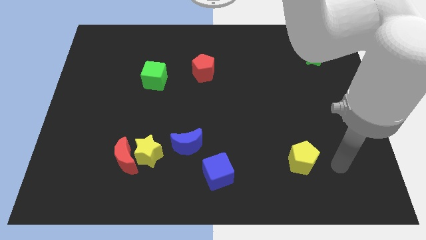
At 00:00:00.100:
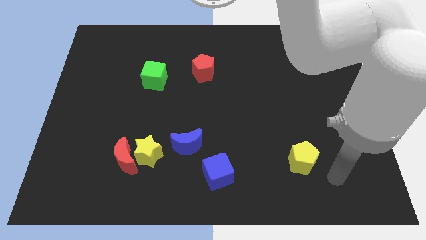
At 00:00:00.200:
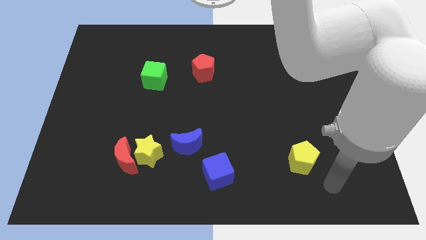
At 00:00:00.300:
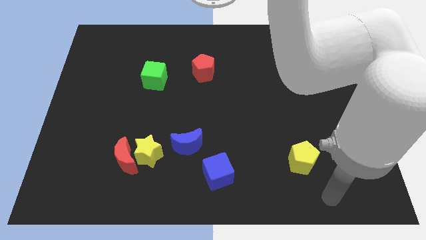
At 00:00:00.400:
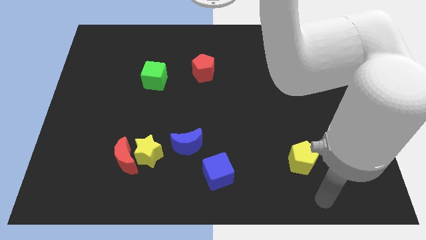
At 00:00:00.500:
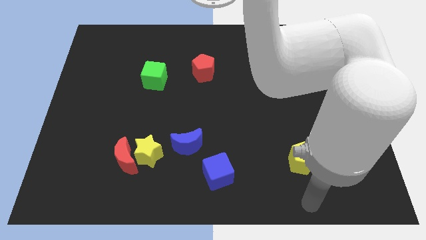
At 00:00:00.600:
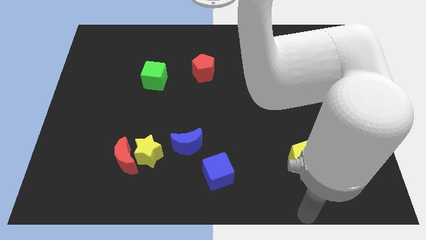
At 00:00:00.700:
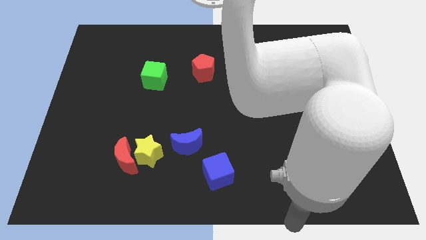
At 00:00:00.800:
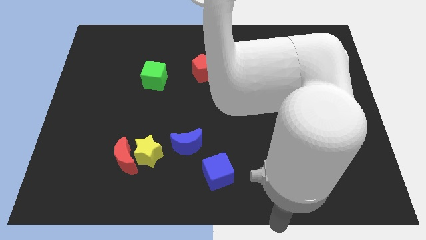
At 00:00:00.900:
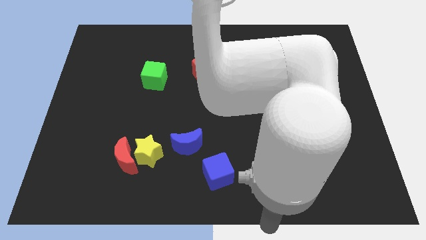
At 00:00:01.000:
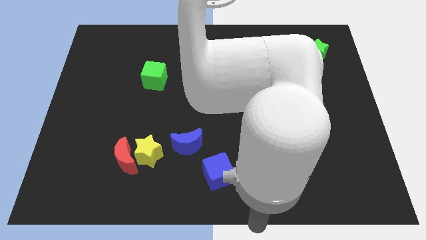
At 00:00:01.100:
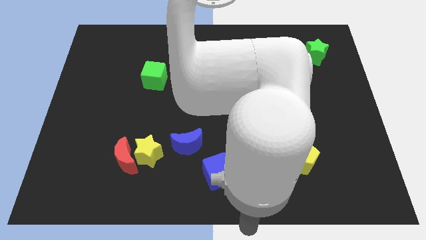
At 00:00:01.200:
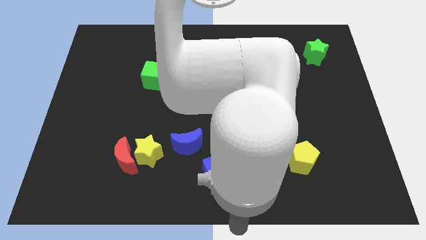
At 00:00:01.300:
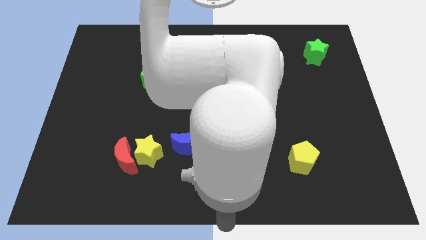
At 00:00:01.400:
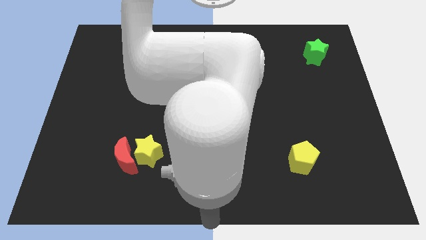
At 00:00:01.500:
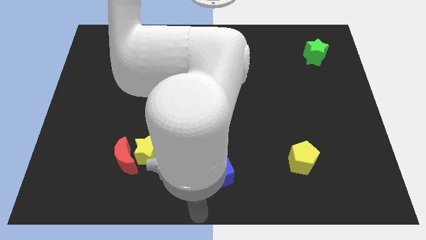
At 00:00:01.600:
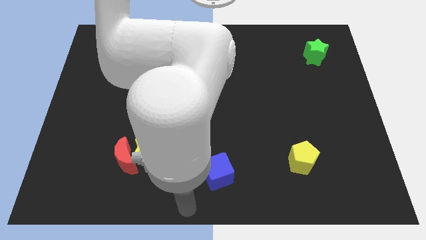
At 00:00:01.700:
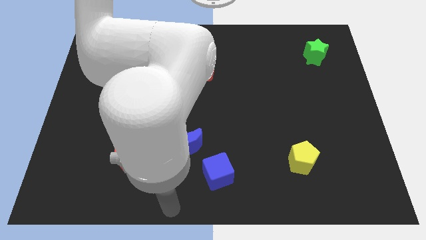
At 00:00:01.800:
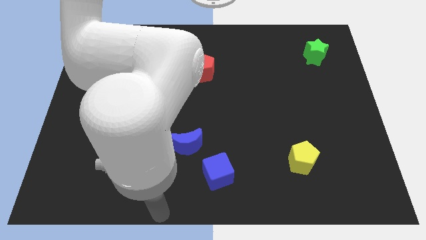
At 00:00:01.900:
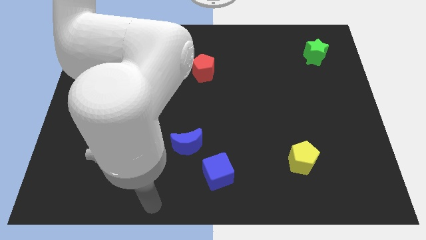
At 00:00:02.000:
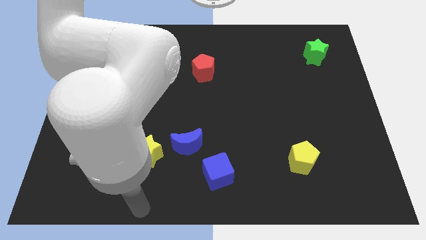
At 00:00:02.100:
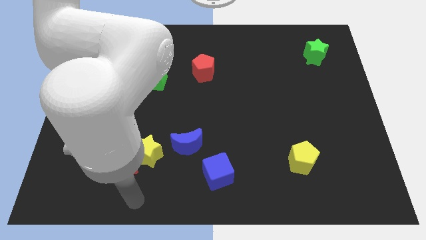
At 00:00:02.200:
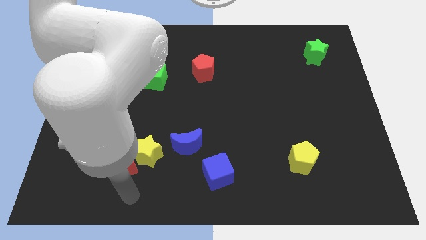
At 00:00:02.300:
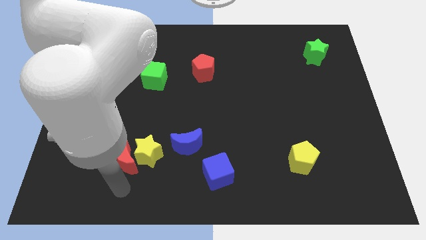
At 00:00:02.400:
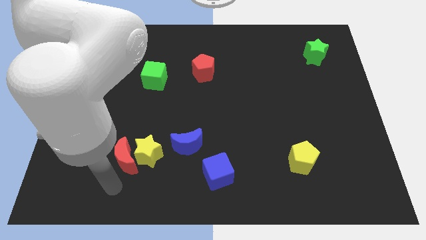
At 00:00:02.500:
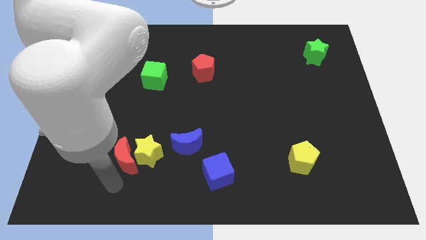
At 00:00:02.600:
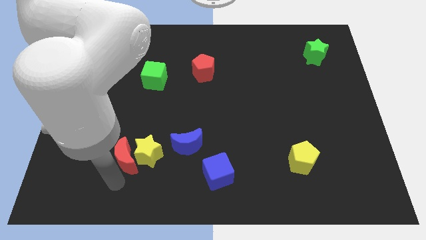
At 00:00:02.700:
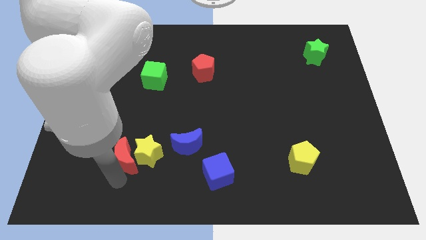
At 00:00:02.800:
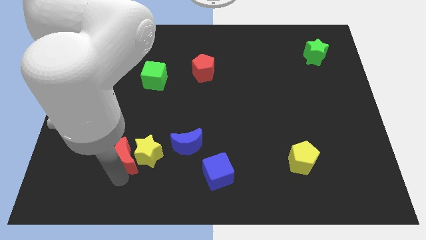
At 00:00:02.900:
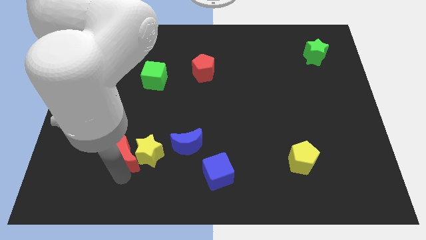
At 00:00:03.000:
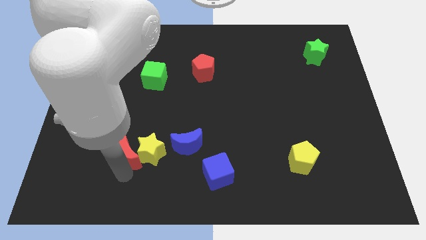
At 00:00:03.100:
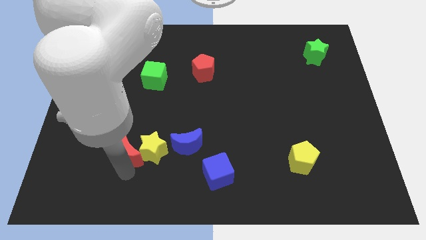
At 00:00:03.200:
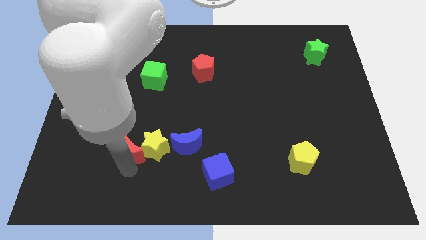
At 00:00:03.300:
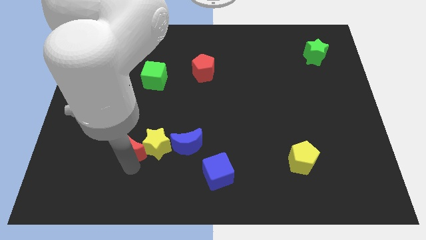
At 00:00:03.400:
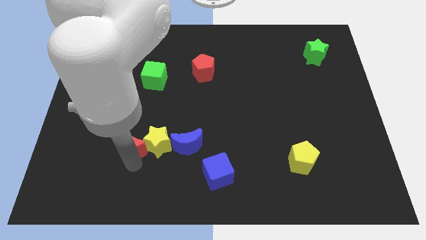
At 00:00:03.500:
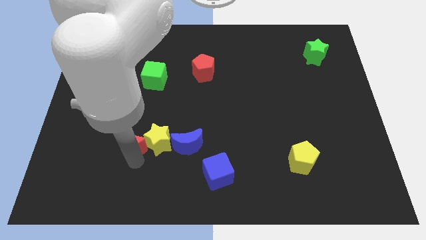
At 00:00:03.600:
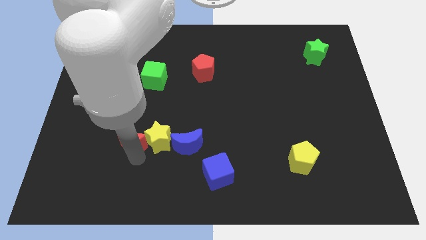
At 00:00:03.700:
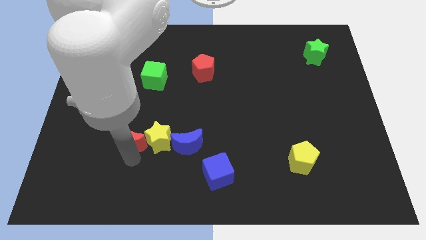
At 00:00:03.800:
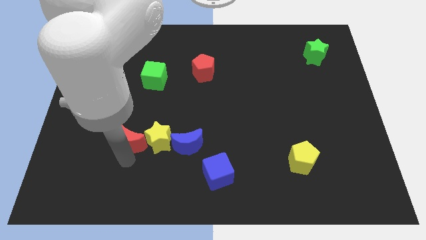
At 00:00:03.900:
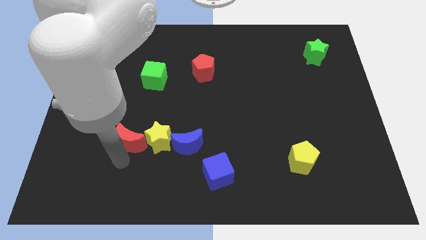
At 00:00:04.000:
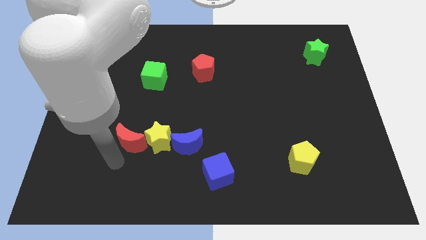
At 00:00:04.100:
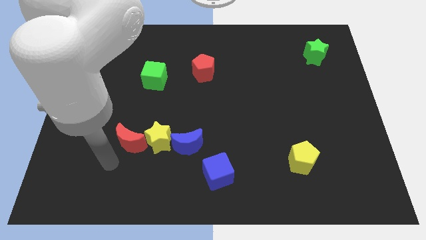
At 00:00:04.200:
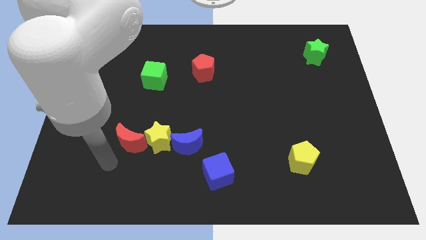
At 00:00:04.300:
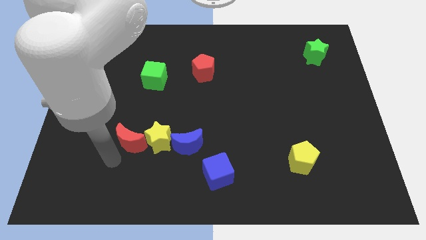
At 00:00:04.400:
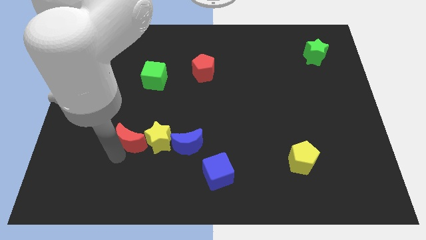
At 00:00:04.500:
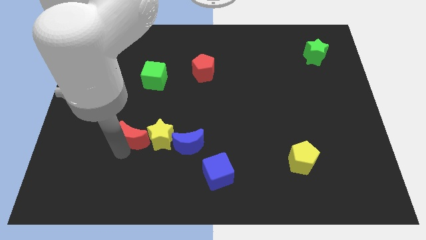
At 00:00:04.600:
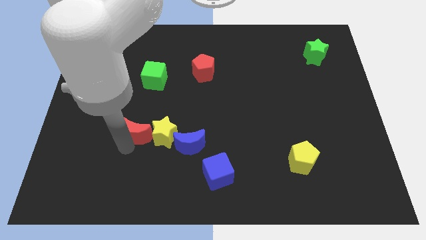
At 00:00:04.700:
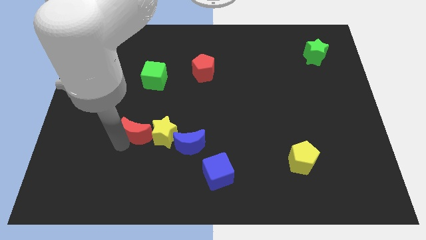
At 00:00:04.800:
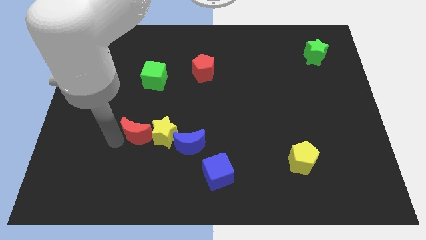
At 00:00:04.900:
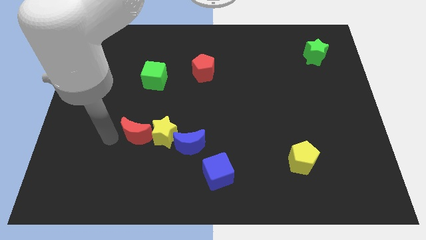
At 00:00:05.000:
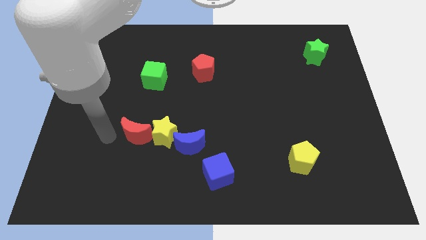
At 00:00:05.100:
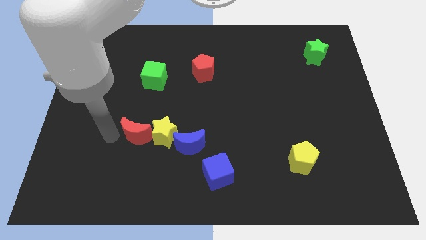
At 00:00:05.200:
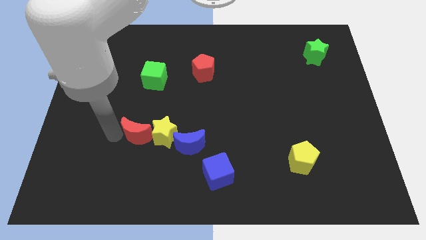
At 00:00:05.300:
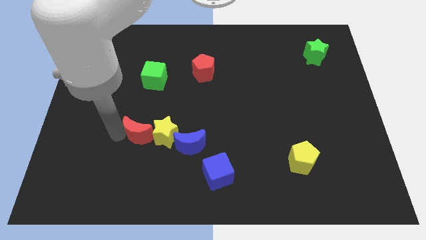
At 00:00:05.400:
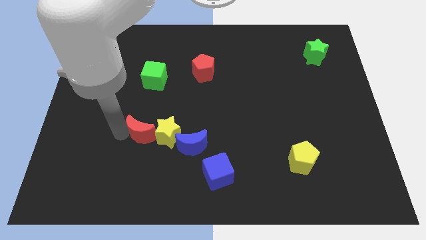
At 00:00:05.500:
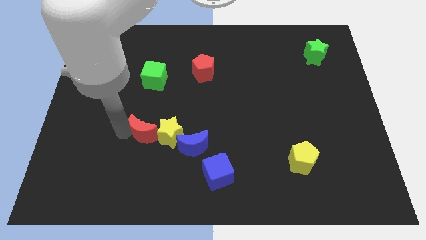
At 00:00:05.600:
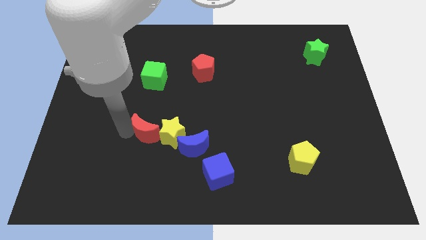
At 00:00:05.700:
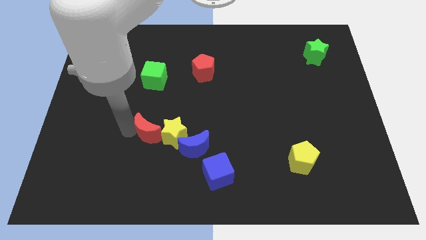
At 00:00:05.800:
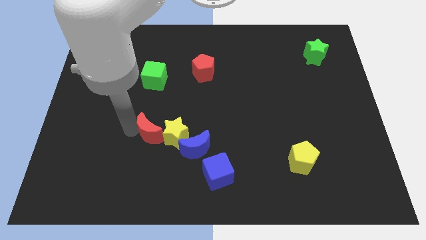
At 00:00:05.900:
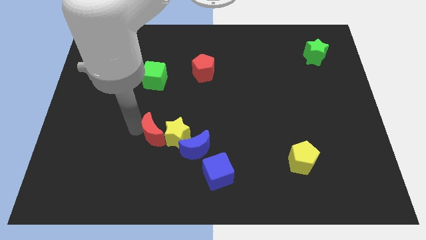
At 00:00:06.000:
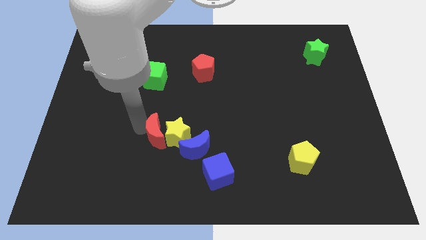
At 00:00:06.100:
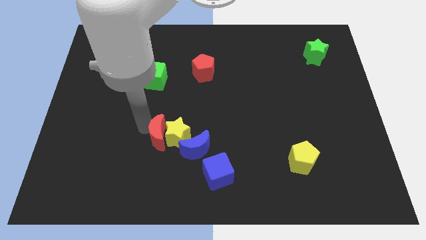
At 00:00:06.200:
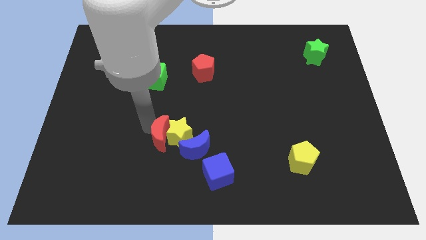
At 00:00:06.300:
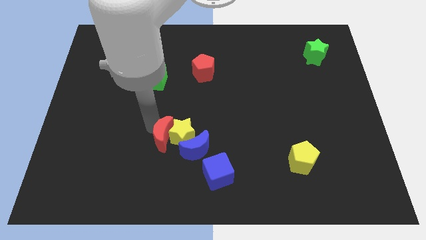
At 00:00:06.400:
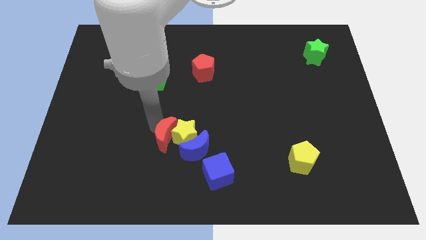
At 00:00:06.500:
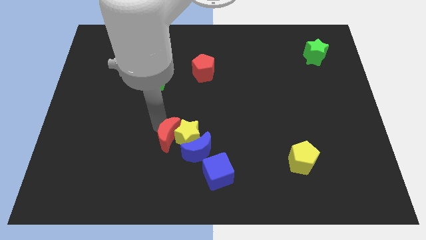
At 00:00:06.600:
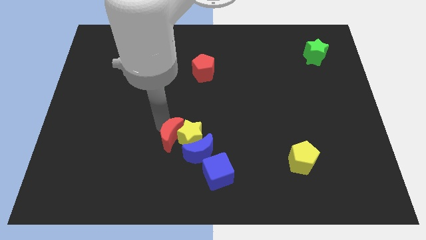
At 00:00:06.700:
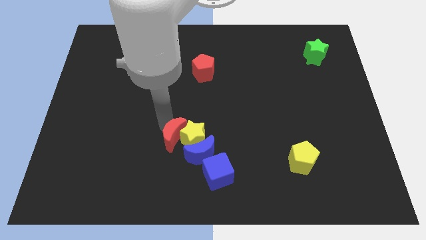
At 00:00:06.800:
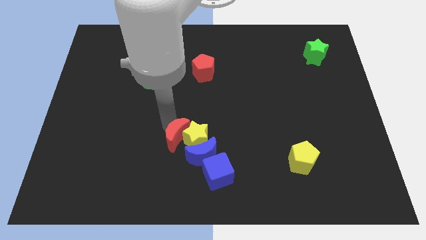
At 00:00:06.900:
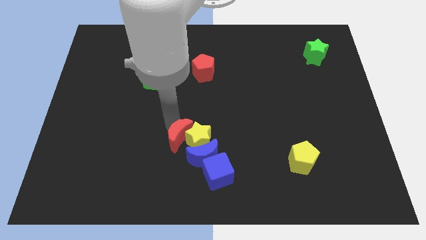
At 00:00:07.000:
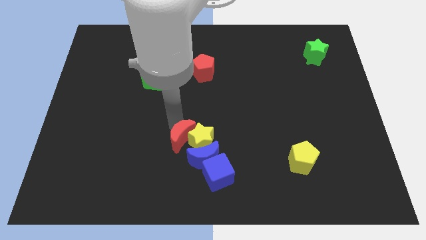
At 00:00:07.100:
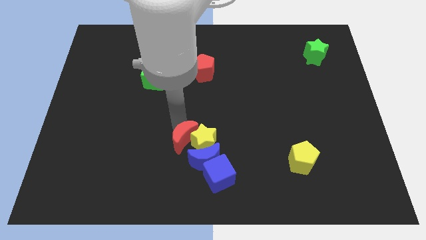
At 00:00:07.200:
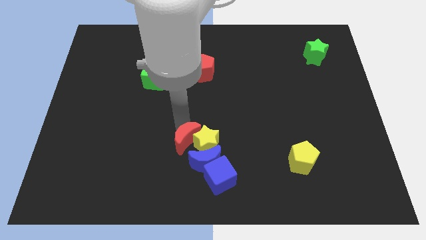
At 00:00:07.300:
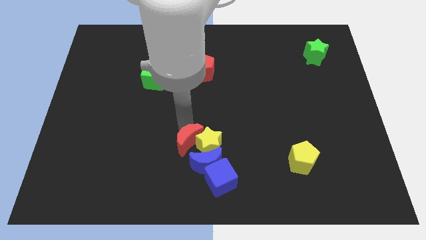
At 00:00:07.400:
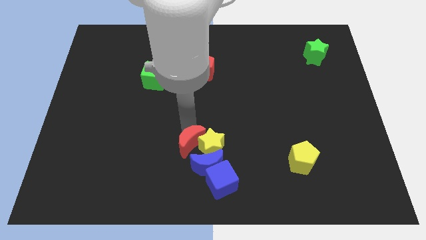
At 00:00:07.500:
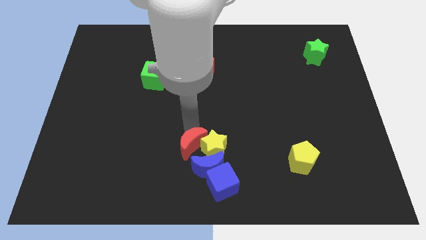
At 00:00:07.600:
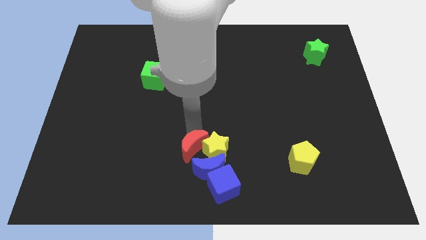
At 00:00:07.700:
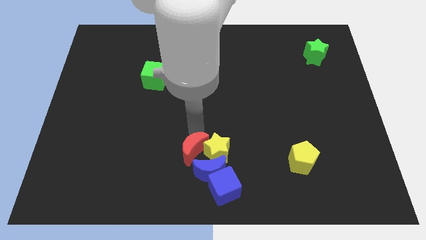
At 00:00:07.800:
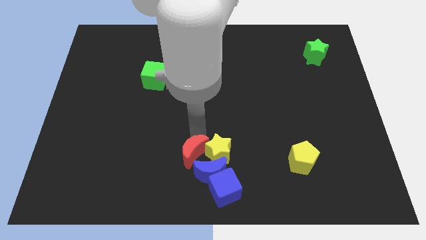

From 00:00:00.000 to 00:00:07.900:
move the red moon towards the blue moon
